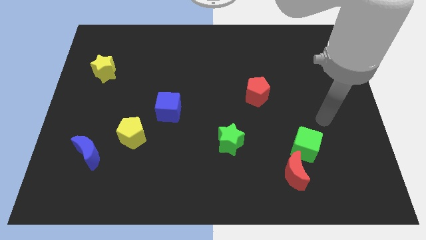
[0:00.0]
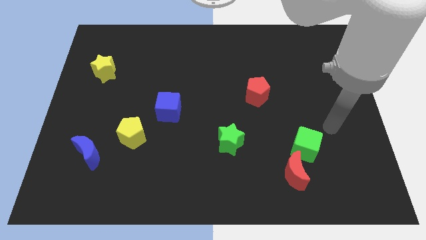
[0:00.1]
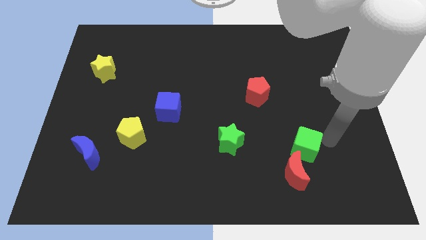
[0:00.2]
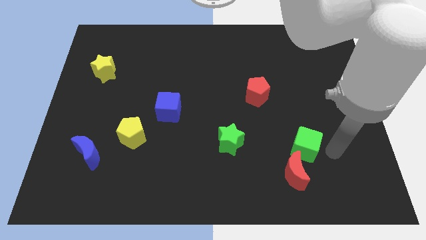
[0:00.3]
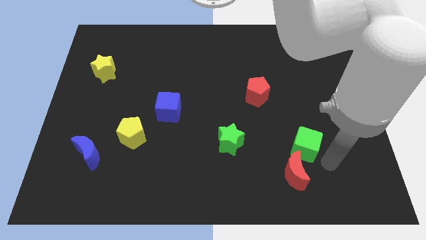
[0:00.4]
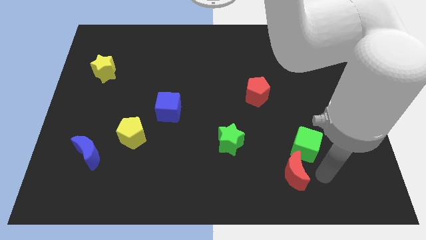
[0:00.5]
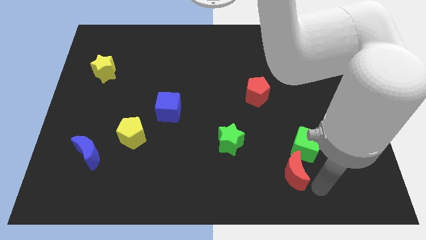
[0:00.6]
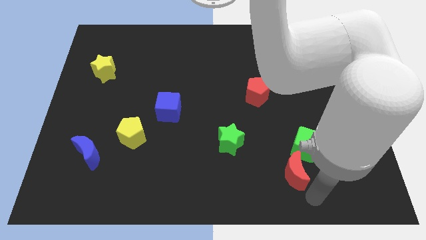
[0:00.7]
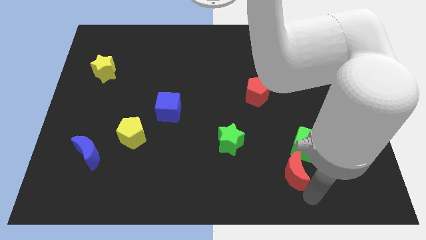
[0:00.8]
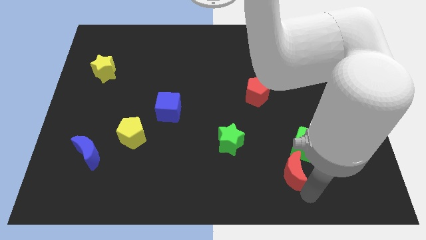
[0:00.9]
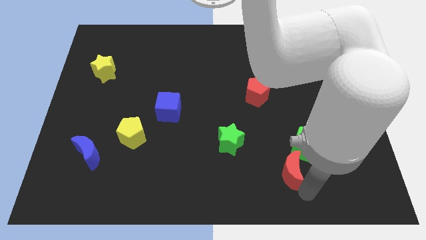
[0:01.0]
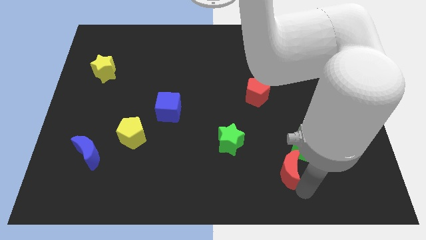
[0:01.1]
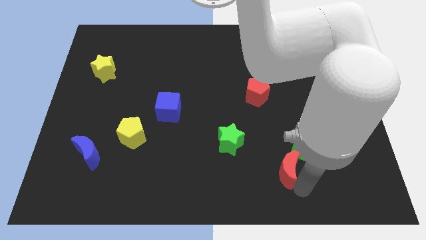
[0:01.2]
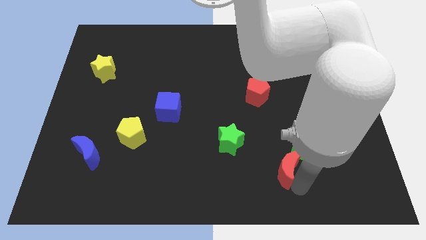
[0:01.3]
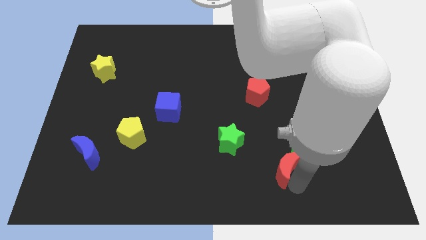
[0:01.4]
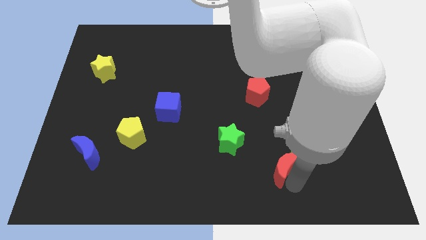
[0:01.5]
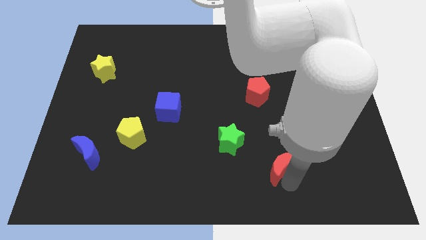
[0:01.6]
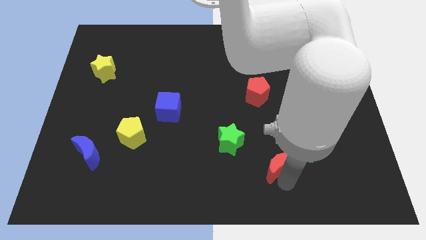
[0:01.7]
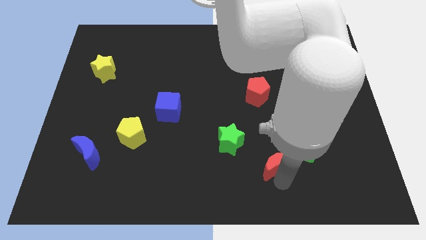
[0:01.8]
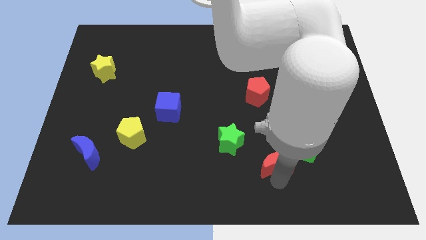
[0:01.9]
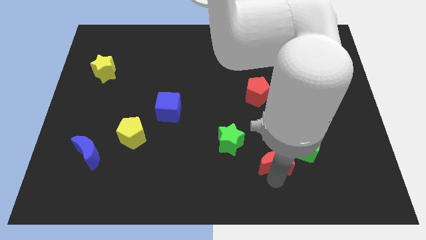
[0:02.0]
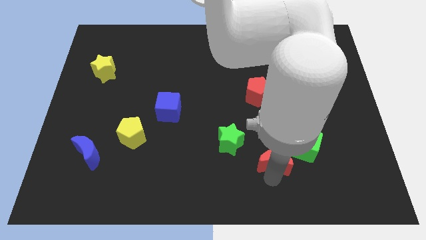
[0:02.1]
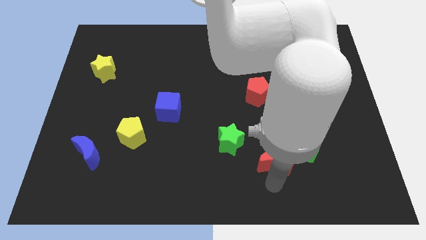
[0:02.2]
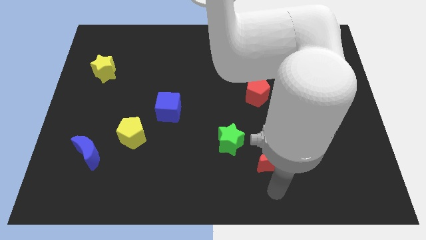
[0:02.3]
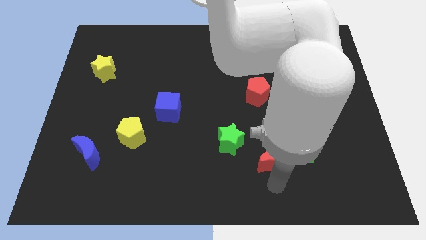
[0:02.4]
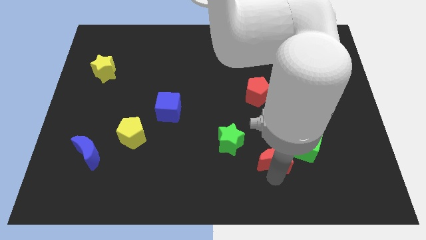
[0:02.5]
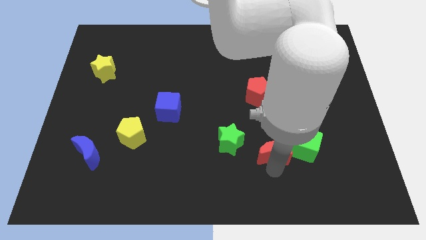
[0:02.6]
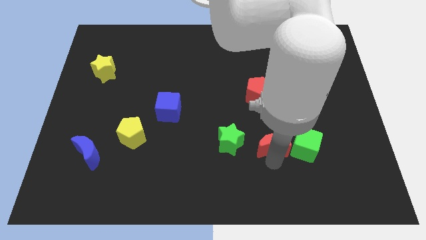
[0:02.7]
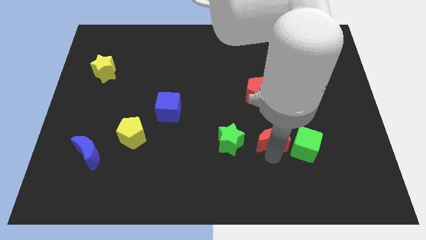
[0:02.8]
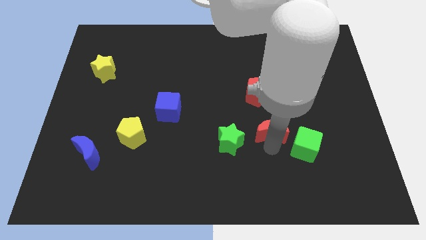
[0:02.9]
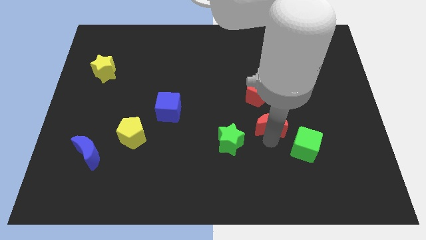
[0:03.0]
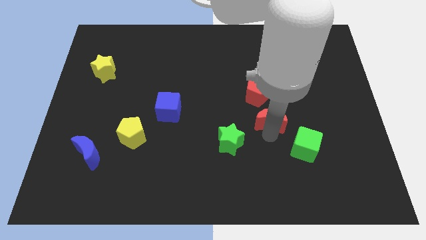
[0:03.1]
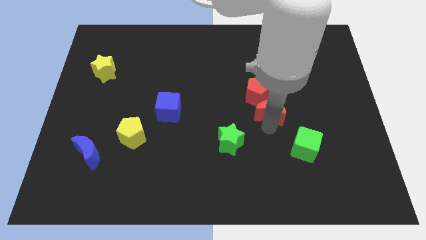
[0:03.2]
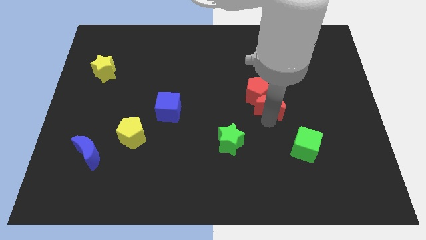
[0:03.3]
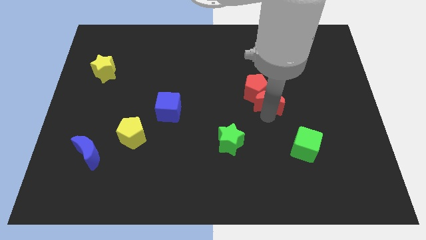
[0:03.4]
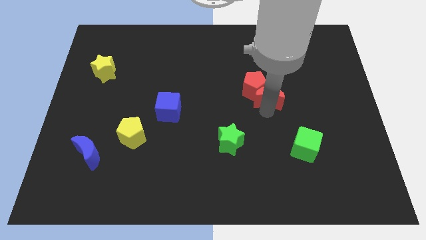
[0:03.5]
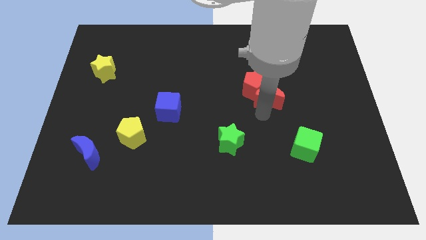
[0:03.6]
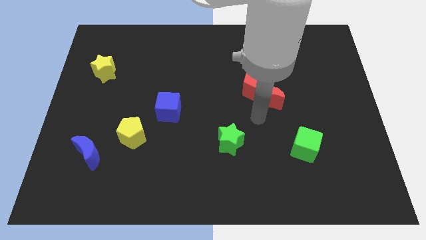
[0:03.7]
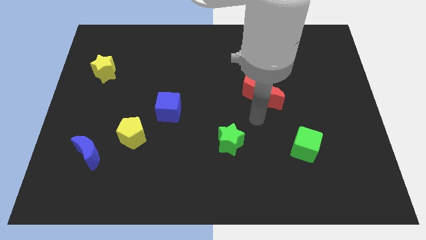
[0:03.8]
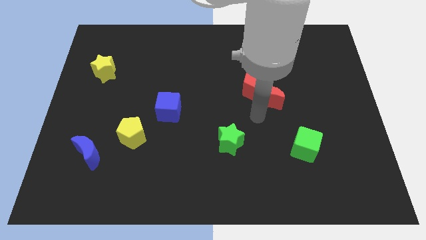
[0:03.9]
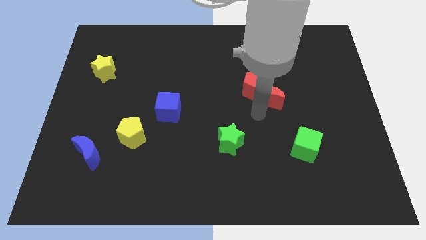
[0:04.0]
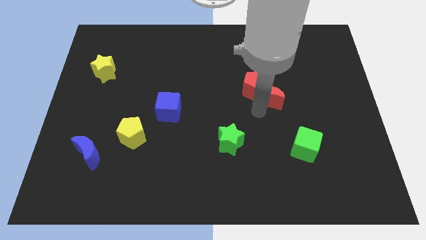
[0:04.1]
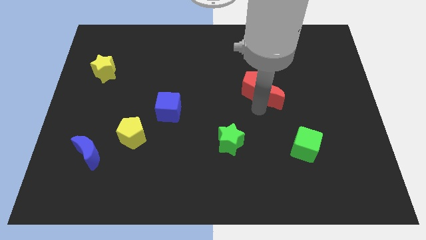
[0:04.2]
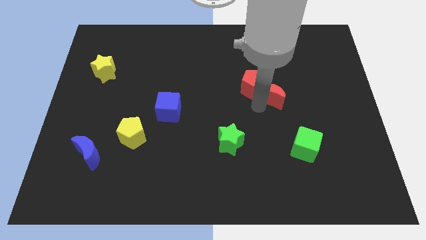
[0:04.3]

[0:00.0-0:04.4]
slide the red moon up

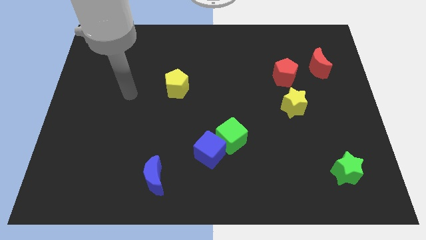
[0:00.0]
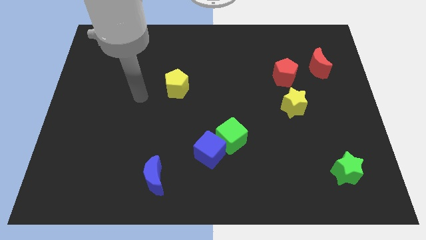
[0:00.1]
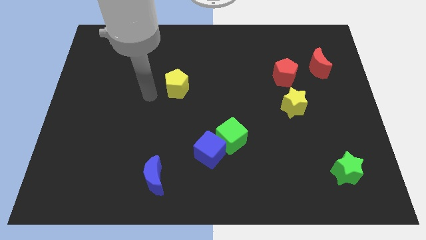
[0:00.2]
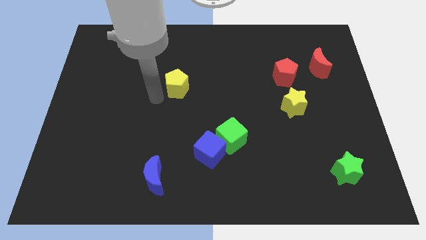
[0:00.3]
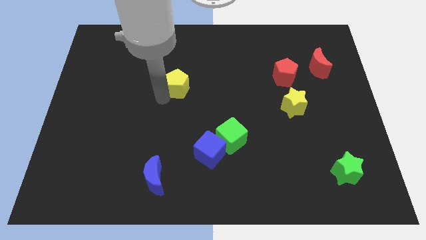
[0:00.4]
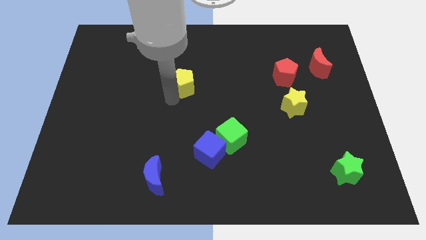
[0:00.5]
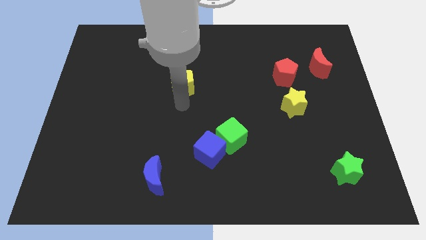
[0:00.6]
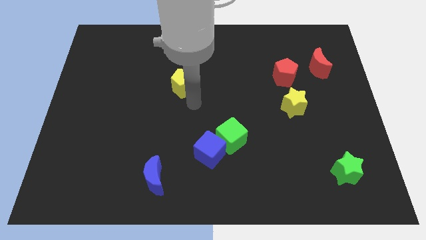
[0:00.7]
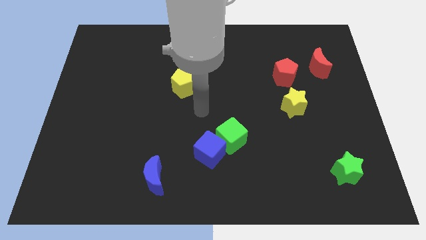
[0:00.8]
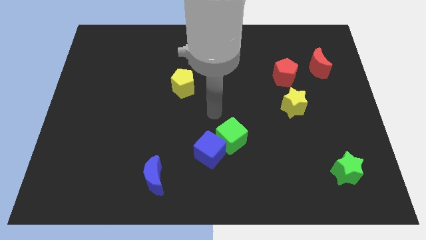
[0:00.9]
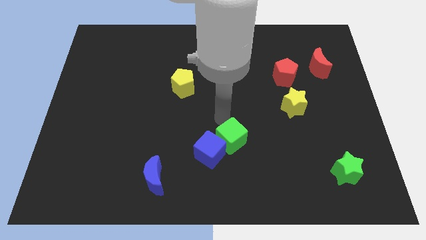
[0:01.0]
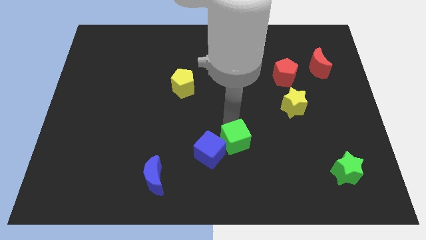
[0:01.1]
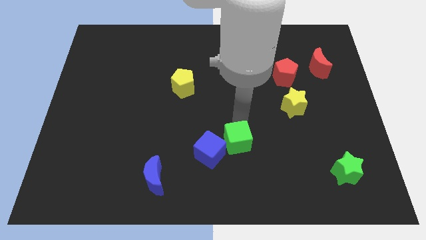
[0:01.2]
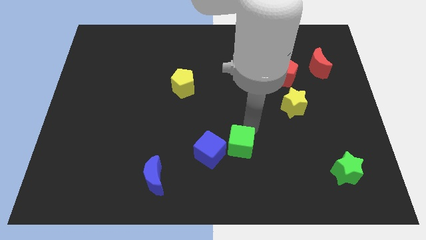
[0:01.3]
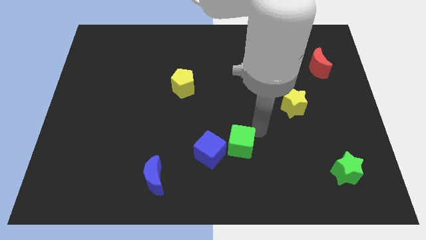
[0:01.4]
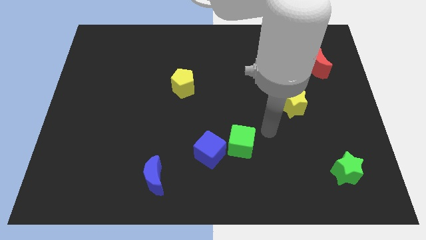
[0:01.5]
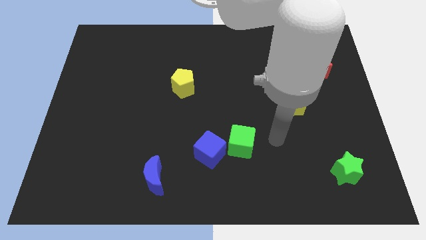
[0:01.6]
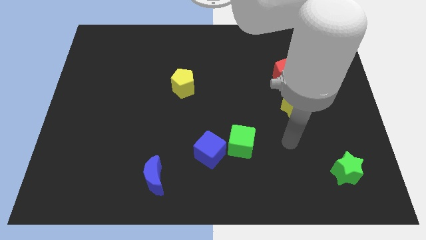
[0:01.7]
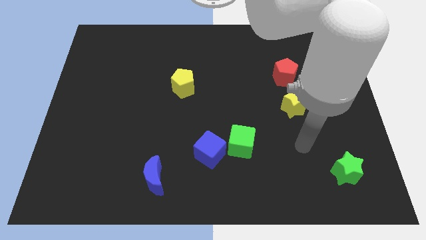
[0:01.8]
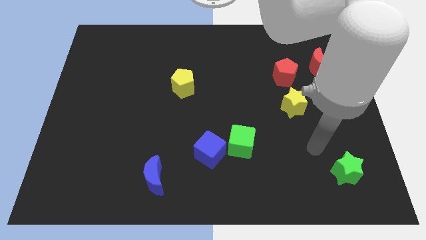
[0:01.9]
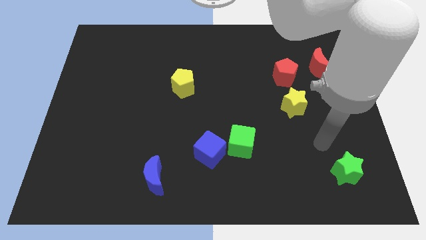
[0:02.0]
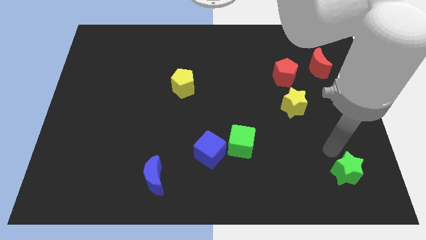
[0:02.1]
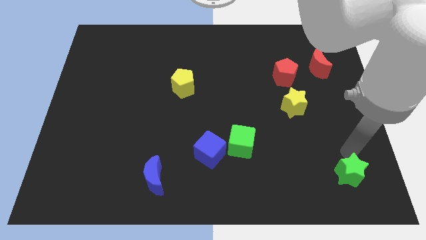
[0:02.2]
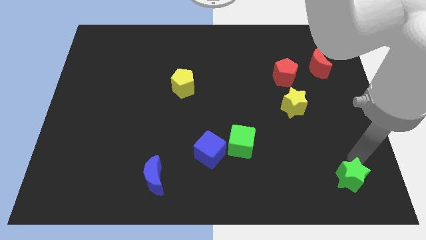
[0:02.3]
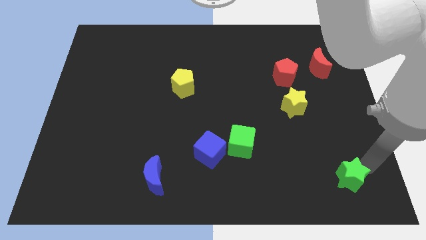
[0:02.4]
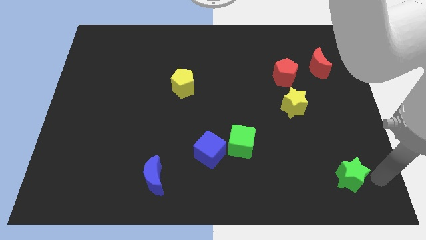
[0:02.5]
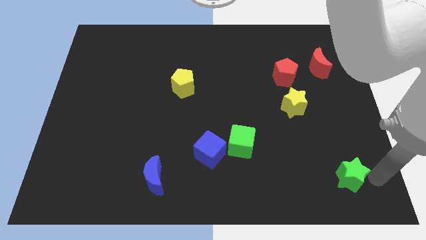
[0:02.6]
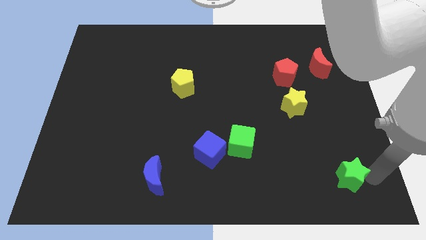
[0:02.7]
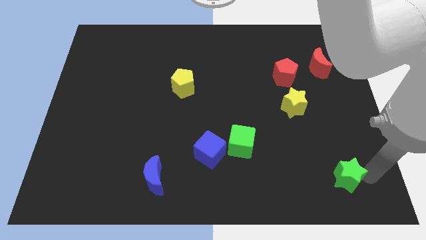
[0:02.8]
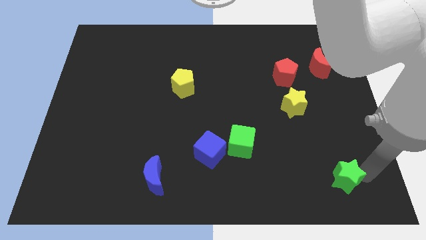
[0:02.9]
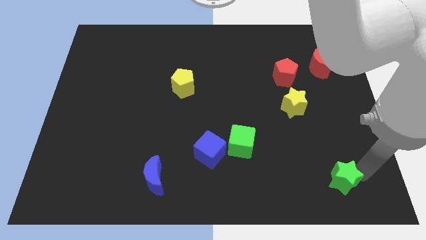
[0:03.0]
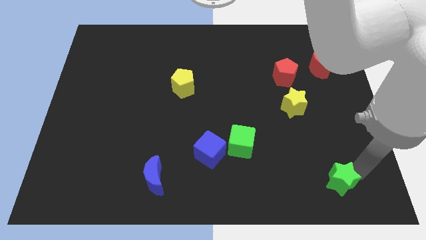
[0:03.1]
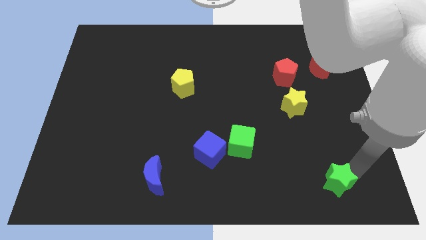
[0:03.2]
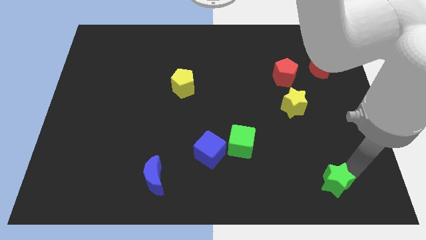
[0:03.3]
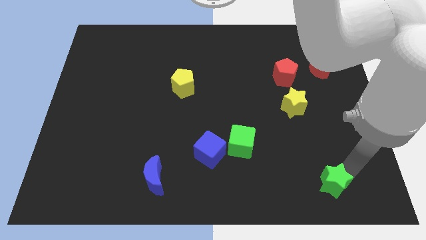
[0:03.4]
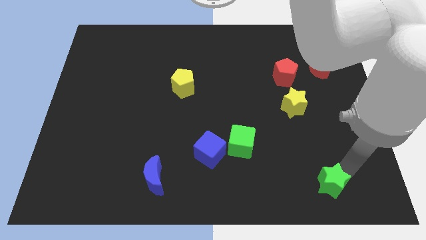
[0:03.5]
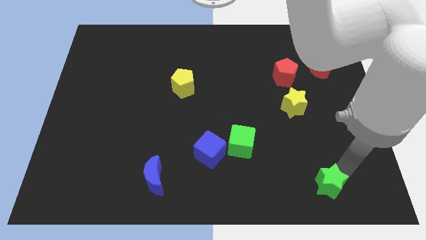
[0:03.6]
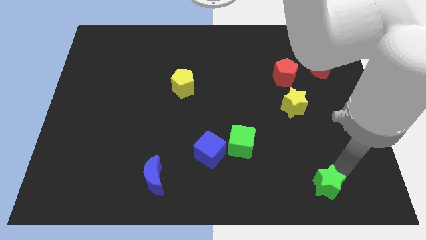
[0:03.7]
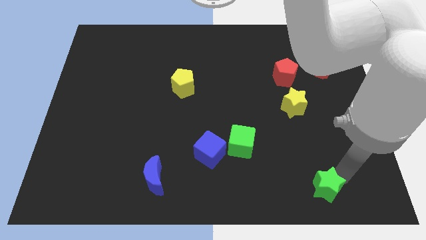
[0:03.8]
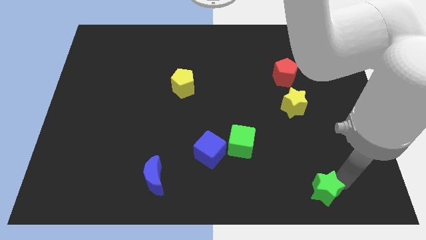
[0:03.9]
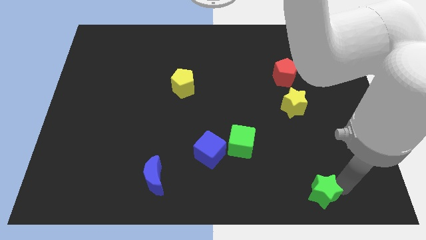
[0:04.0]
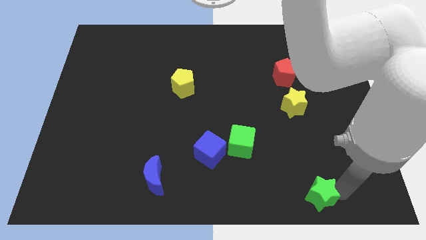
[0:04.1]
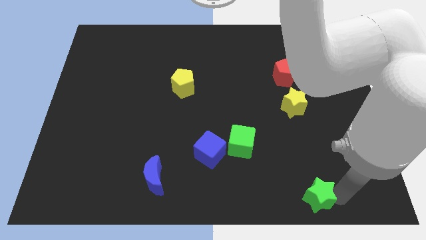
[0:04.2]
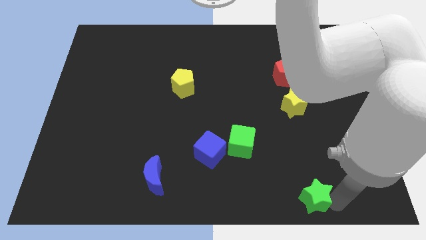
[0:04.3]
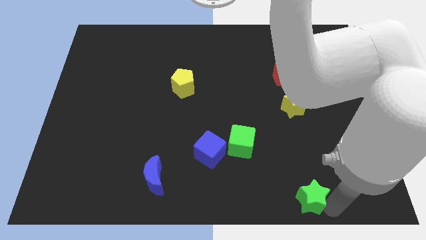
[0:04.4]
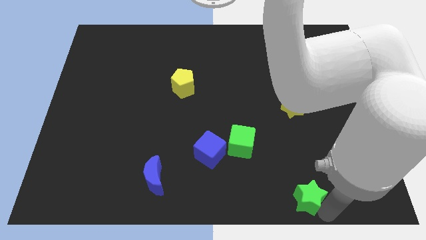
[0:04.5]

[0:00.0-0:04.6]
slide the green star left slightly
